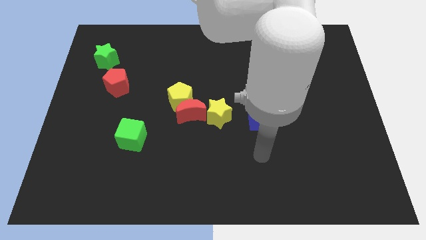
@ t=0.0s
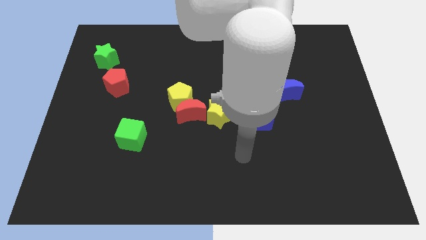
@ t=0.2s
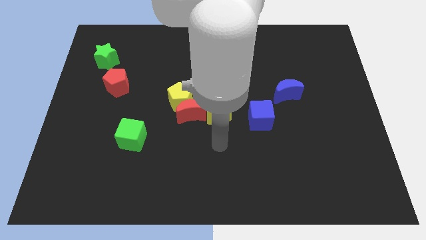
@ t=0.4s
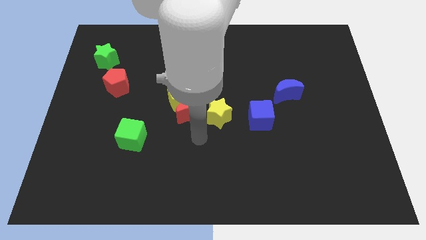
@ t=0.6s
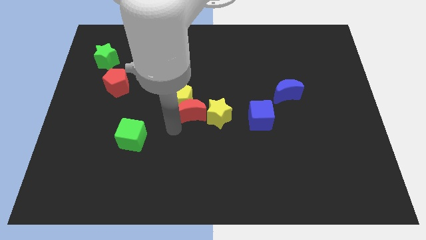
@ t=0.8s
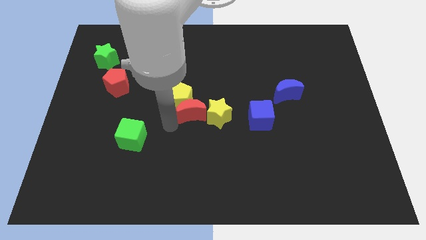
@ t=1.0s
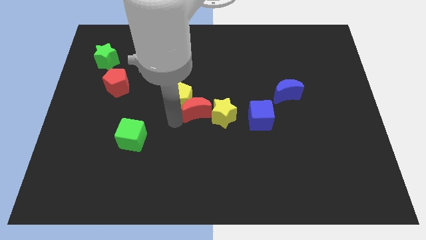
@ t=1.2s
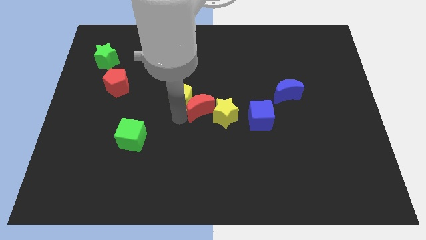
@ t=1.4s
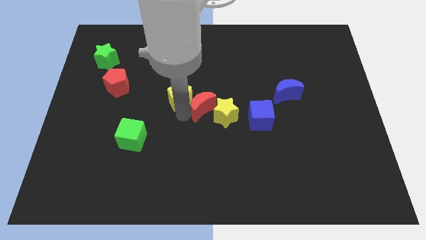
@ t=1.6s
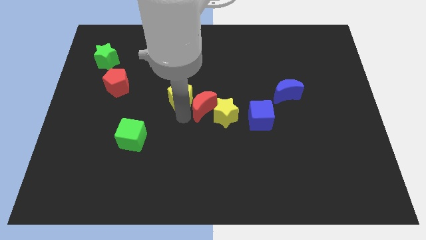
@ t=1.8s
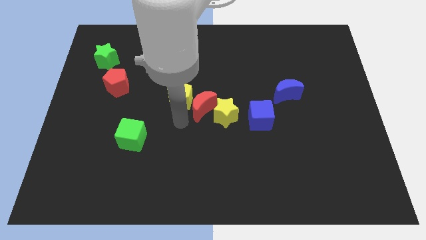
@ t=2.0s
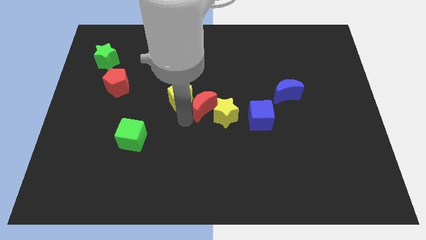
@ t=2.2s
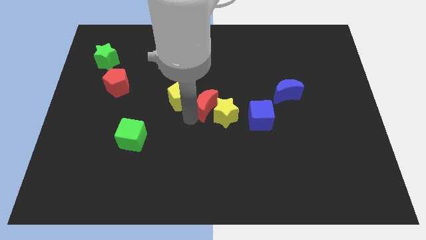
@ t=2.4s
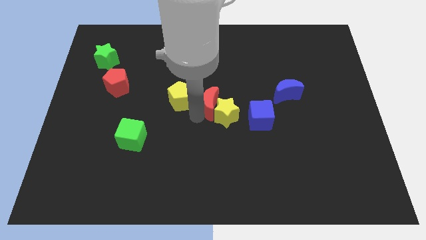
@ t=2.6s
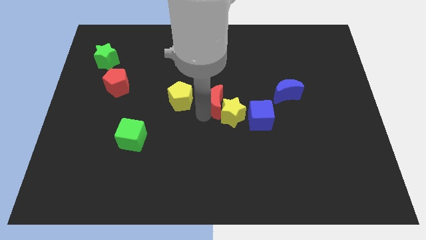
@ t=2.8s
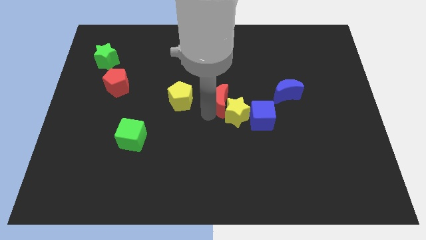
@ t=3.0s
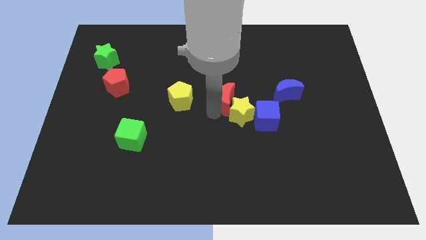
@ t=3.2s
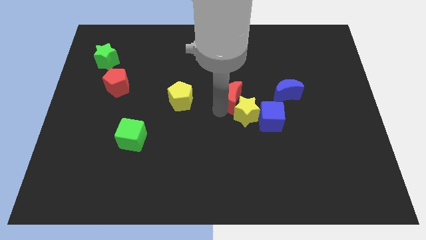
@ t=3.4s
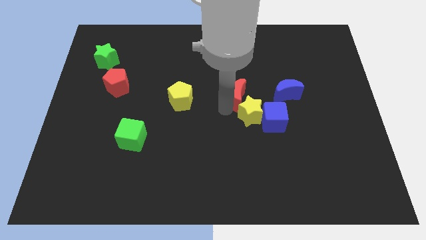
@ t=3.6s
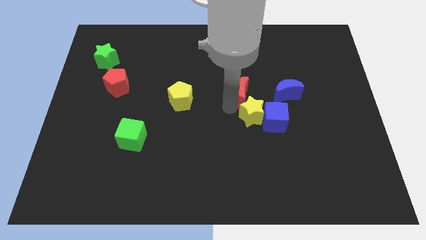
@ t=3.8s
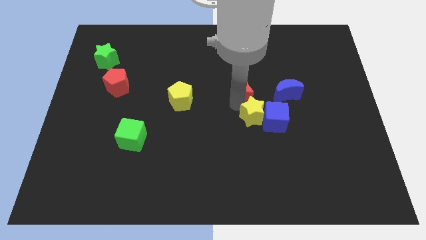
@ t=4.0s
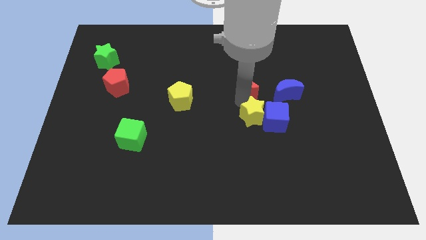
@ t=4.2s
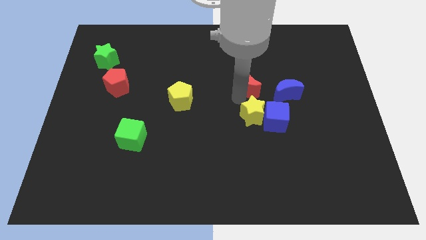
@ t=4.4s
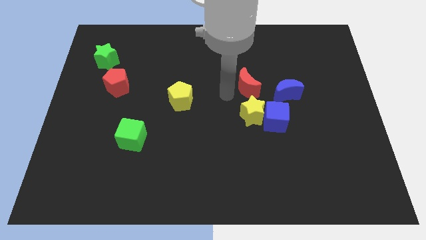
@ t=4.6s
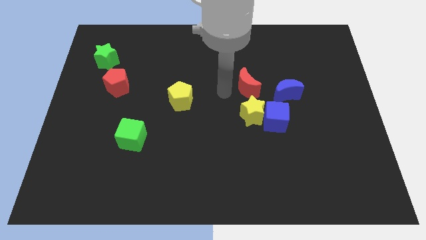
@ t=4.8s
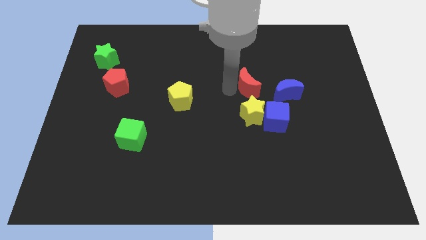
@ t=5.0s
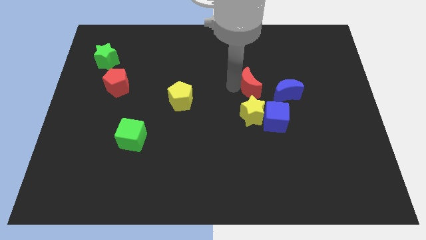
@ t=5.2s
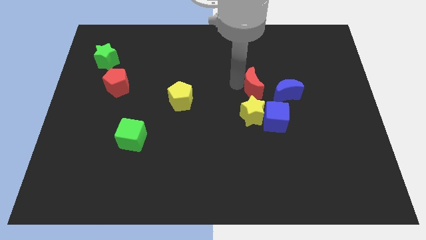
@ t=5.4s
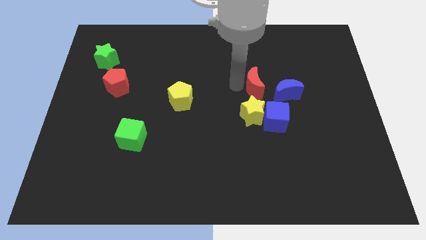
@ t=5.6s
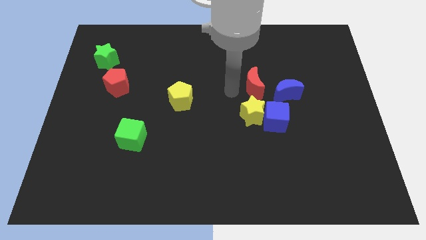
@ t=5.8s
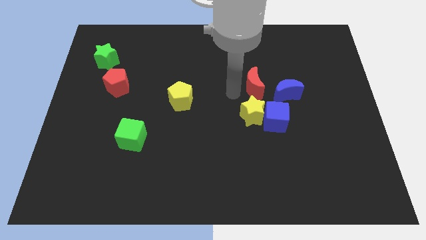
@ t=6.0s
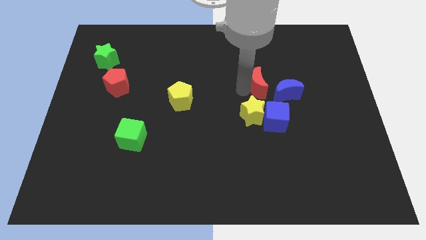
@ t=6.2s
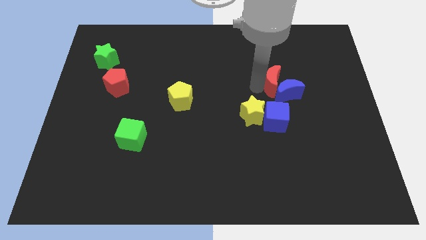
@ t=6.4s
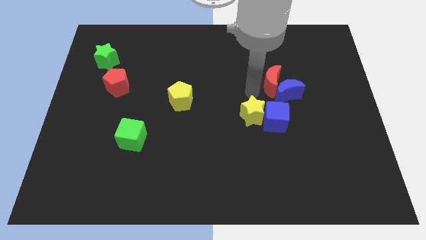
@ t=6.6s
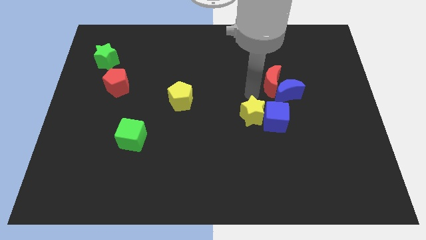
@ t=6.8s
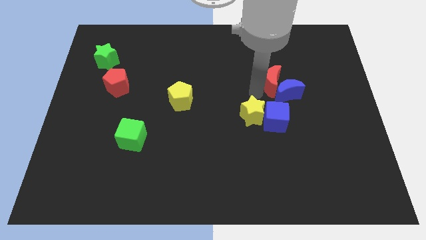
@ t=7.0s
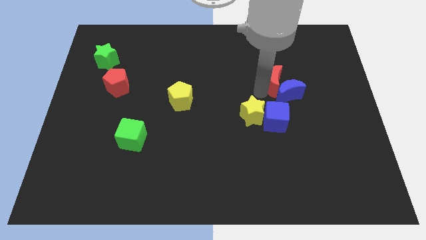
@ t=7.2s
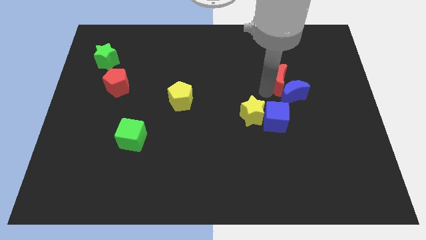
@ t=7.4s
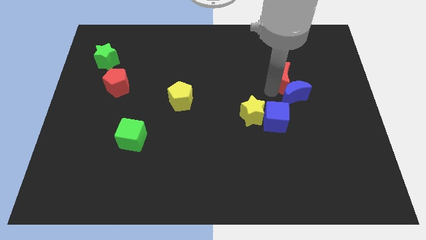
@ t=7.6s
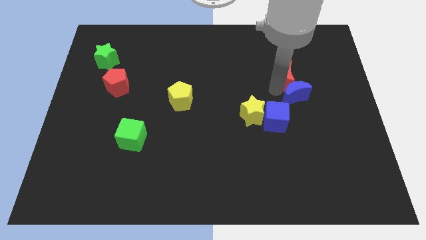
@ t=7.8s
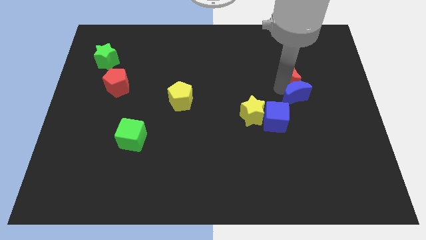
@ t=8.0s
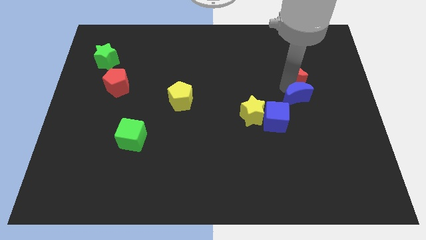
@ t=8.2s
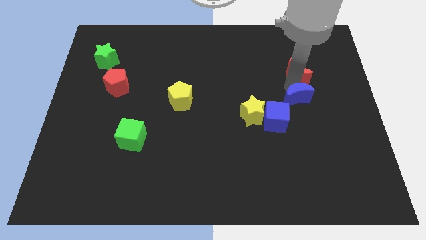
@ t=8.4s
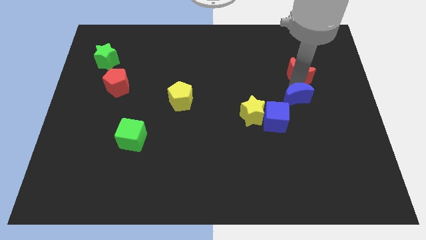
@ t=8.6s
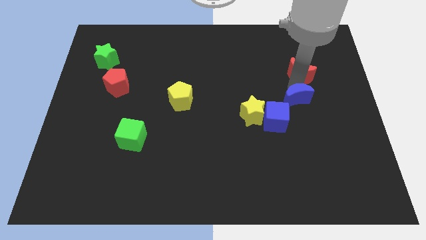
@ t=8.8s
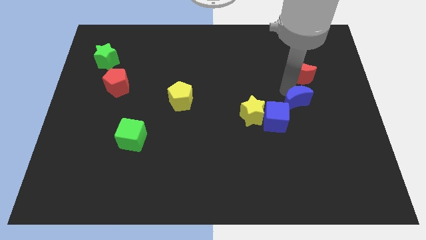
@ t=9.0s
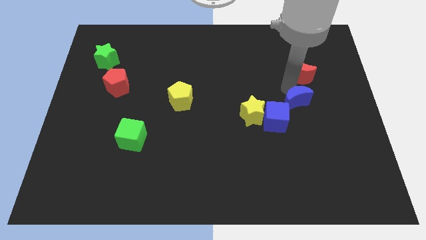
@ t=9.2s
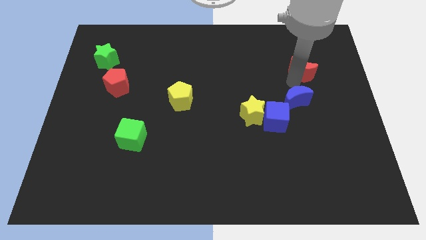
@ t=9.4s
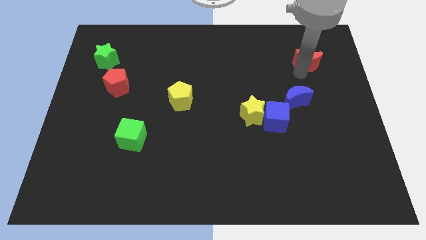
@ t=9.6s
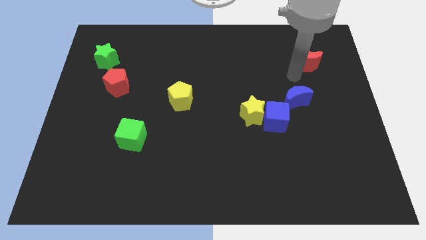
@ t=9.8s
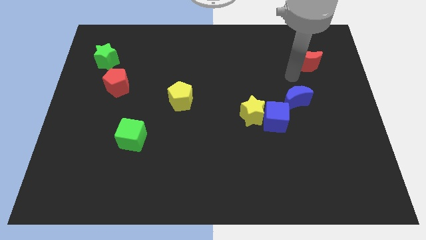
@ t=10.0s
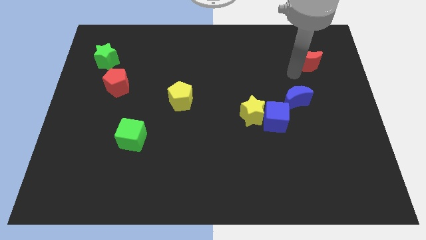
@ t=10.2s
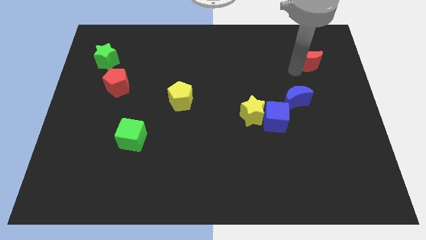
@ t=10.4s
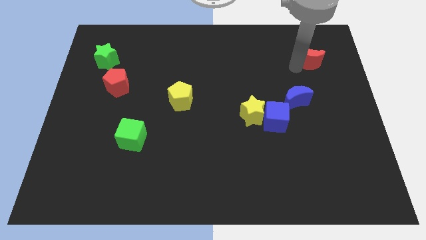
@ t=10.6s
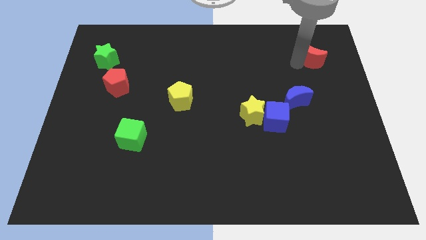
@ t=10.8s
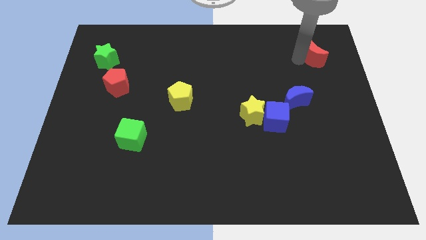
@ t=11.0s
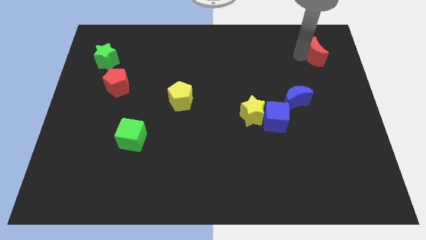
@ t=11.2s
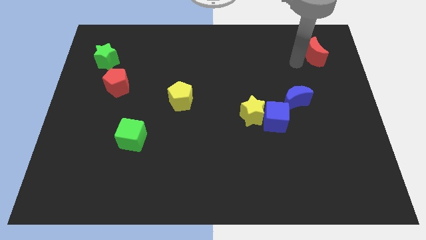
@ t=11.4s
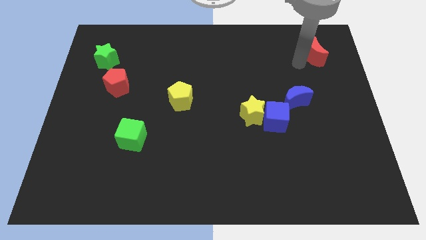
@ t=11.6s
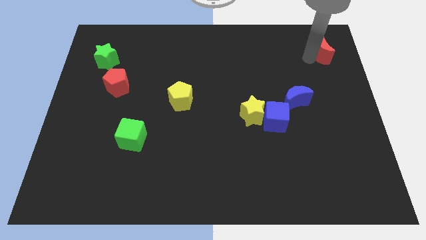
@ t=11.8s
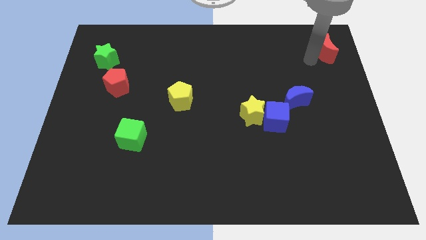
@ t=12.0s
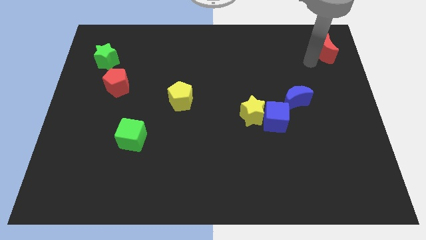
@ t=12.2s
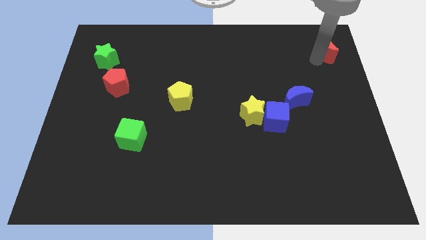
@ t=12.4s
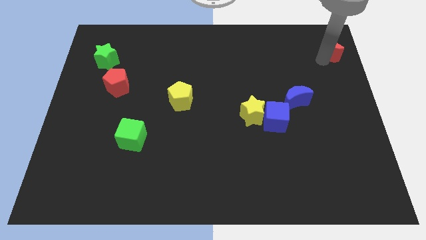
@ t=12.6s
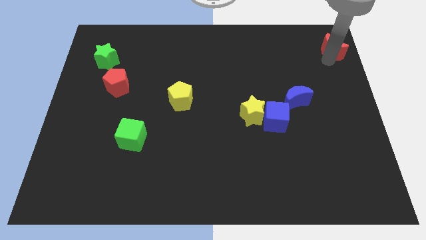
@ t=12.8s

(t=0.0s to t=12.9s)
move the red moon to the upper right corner
